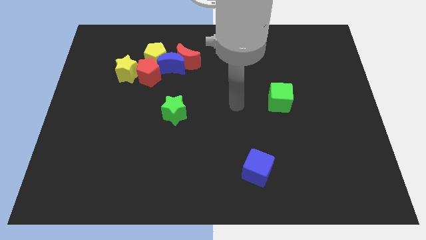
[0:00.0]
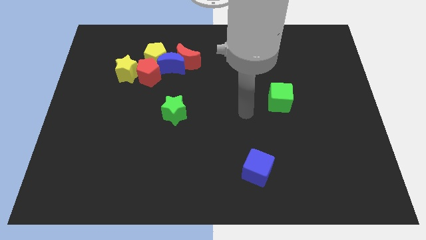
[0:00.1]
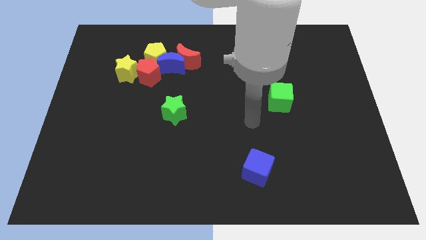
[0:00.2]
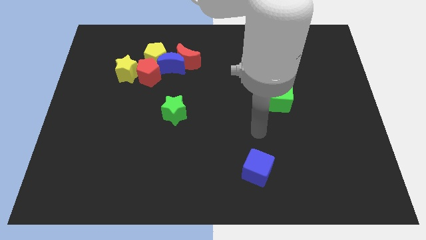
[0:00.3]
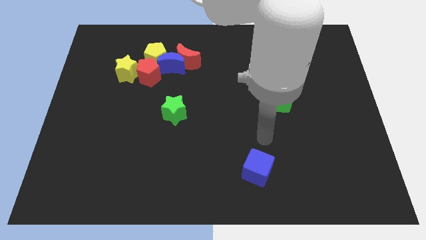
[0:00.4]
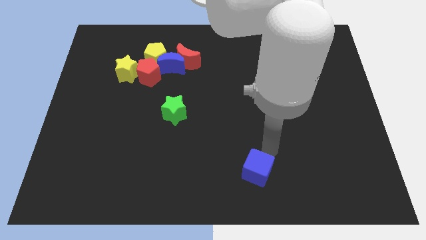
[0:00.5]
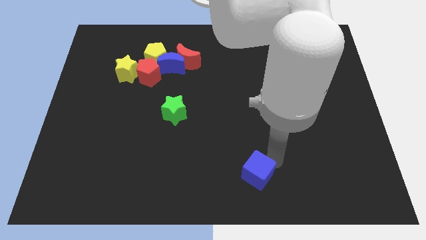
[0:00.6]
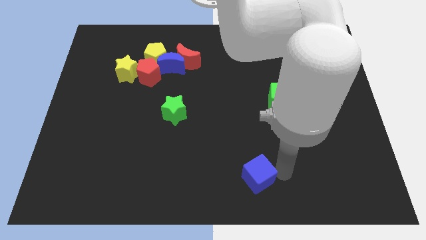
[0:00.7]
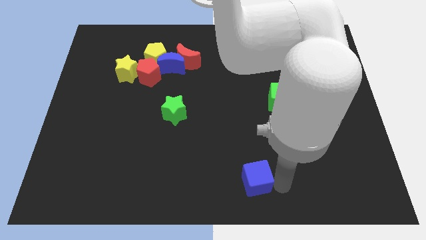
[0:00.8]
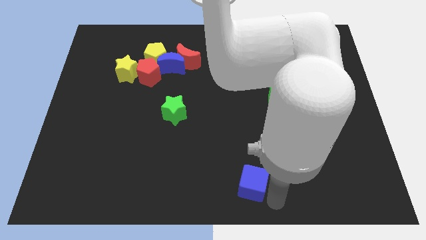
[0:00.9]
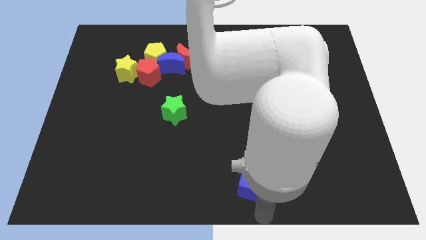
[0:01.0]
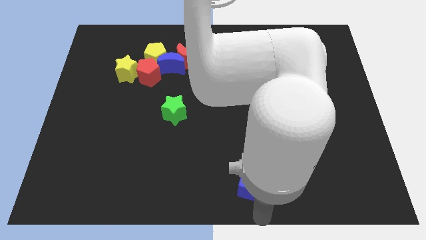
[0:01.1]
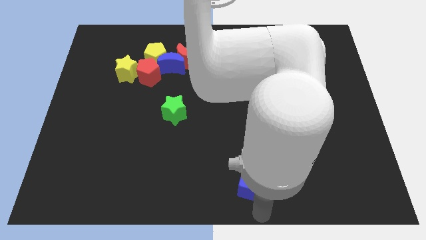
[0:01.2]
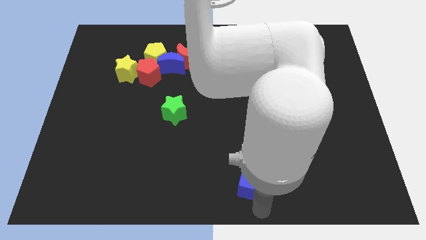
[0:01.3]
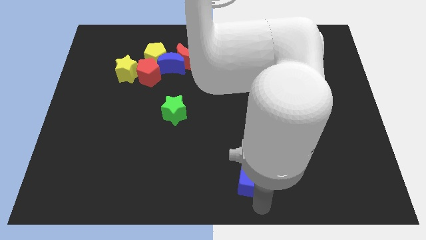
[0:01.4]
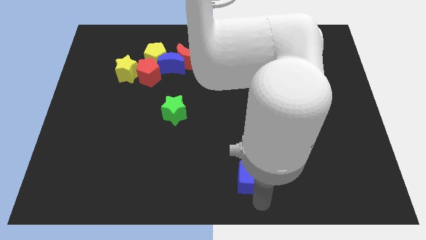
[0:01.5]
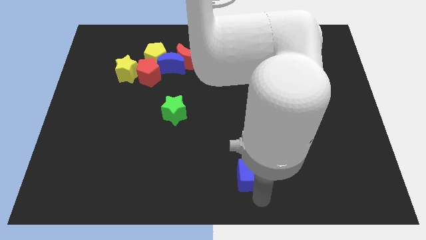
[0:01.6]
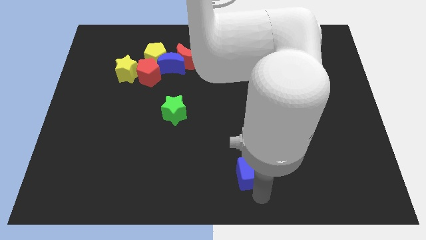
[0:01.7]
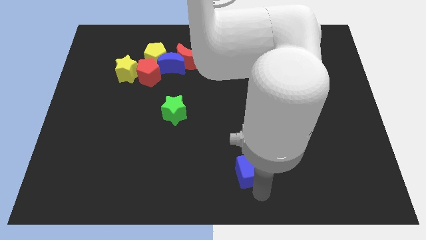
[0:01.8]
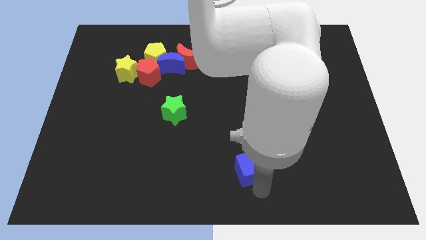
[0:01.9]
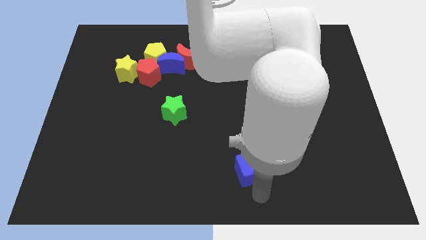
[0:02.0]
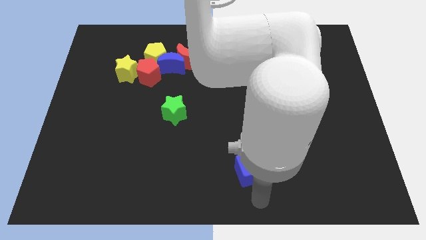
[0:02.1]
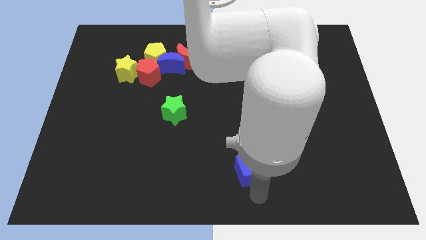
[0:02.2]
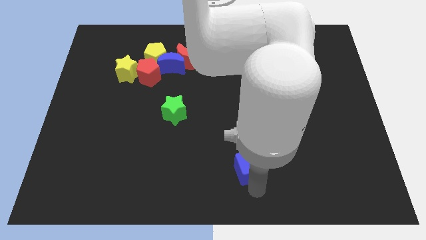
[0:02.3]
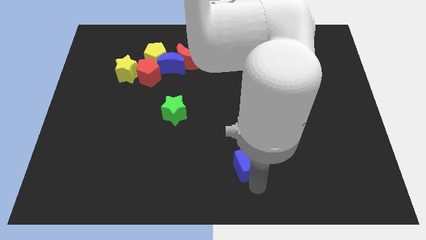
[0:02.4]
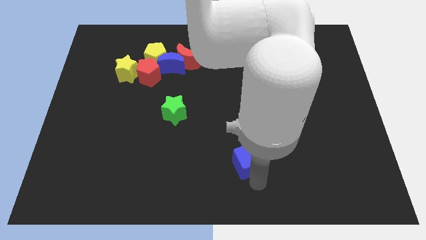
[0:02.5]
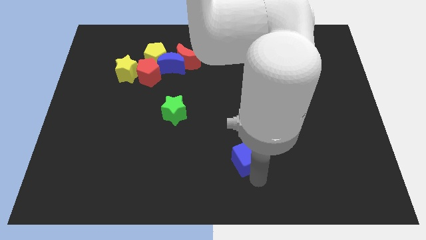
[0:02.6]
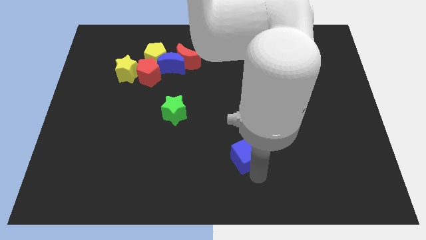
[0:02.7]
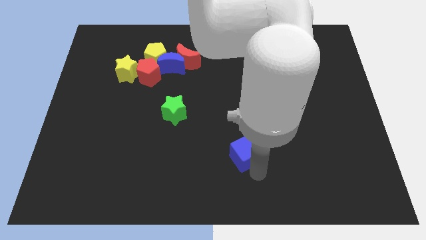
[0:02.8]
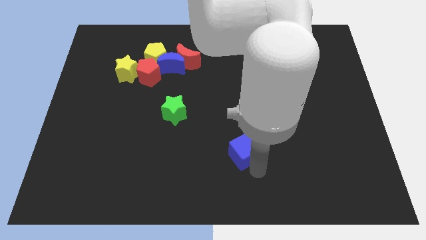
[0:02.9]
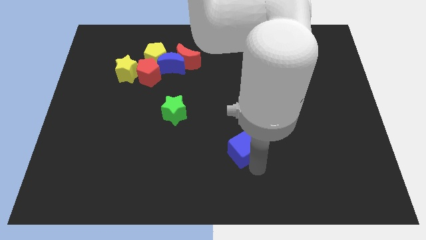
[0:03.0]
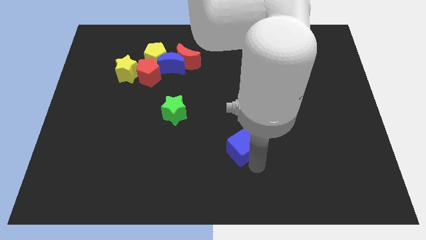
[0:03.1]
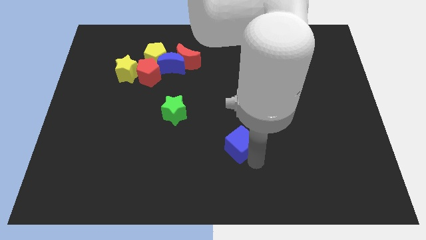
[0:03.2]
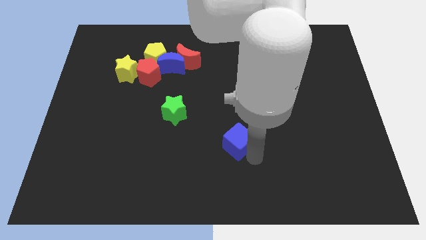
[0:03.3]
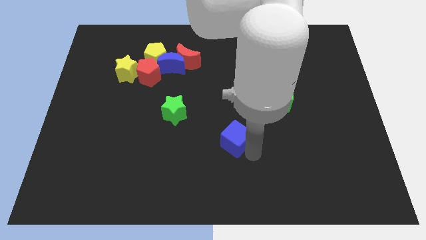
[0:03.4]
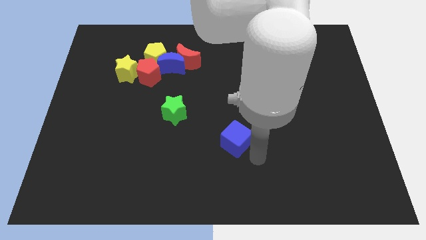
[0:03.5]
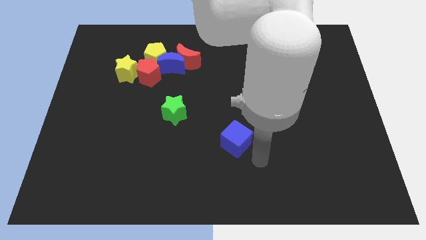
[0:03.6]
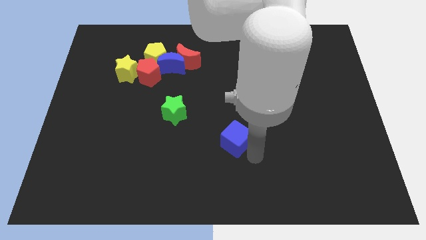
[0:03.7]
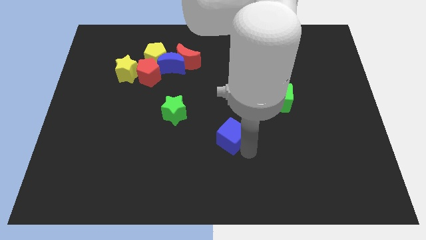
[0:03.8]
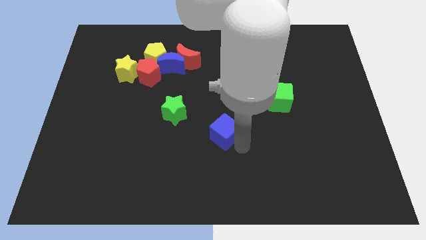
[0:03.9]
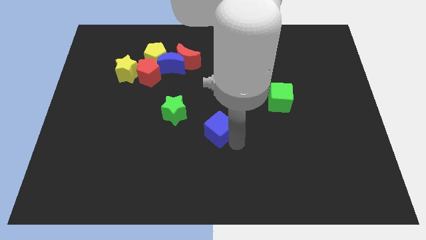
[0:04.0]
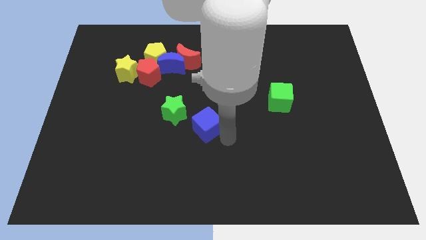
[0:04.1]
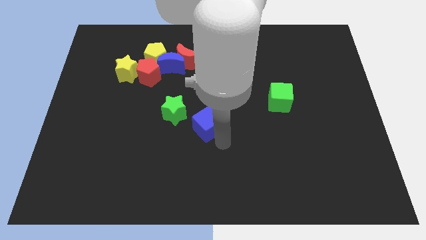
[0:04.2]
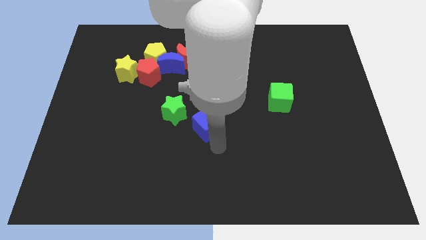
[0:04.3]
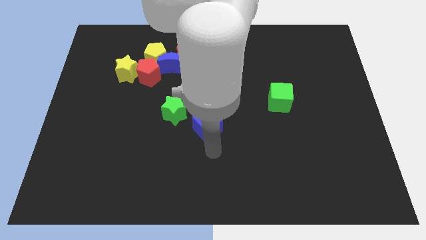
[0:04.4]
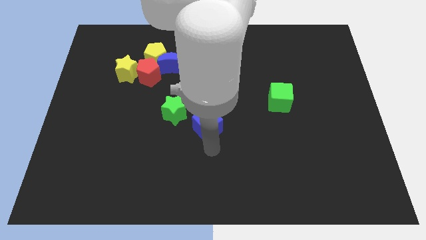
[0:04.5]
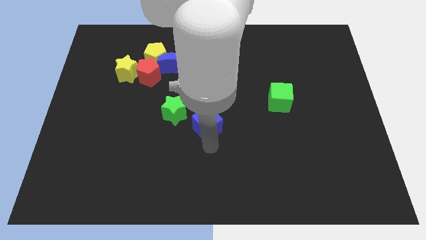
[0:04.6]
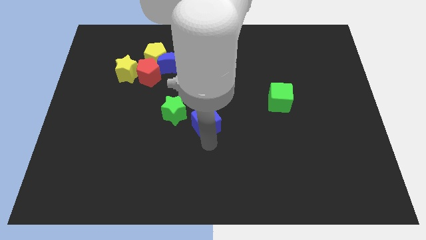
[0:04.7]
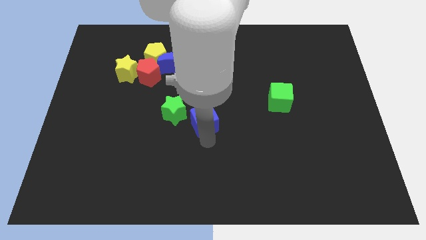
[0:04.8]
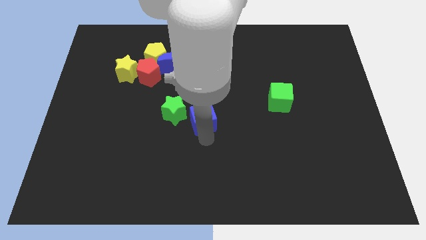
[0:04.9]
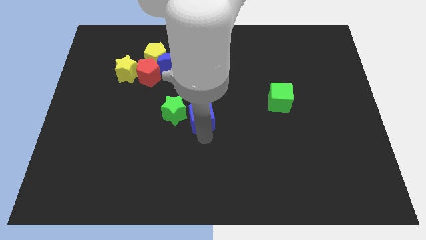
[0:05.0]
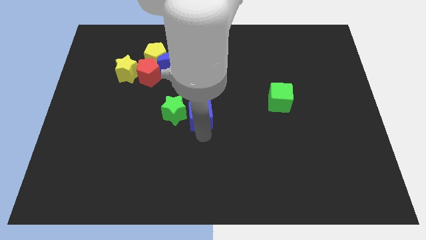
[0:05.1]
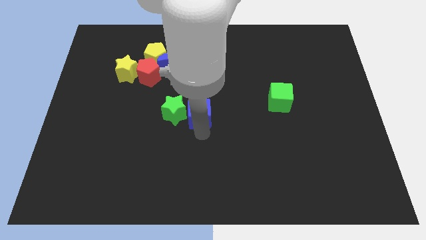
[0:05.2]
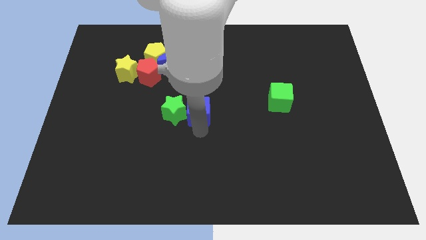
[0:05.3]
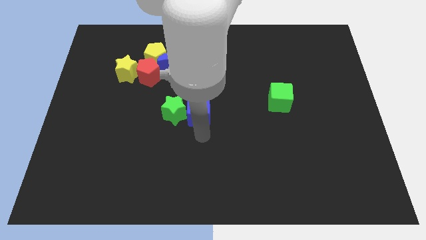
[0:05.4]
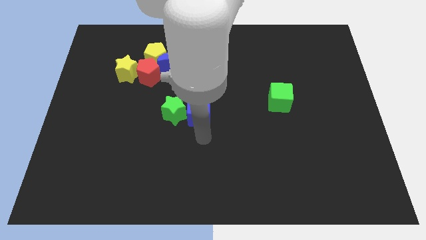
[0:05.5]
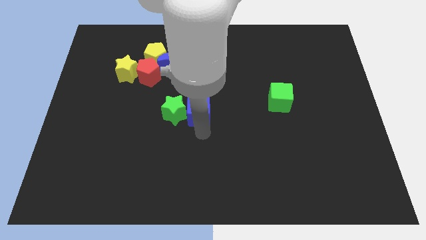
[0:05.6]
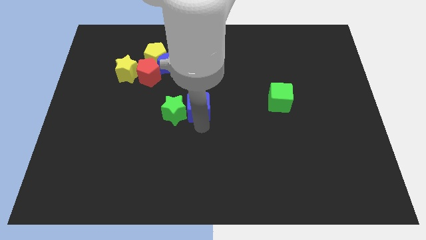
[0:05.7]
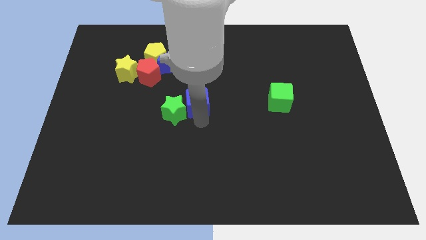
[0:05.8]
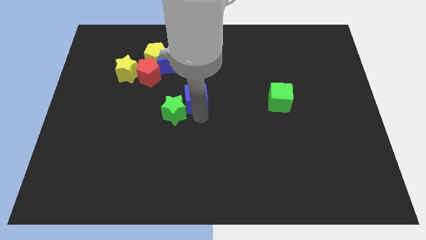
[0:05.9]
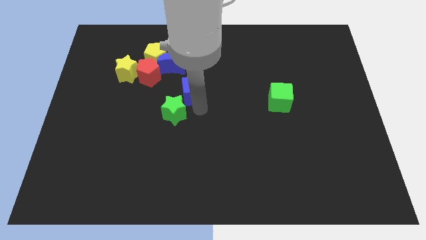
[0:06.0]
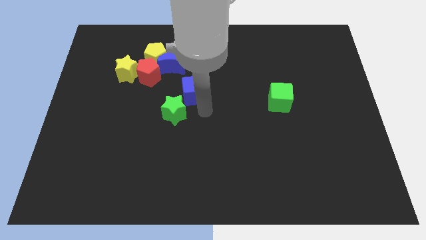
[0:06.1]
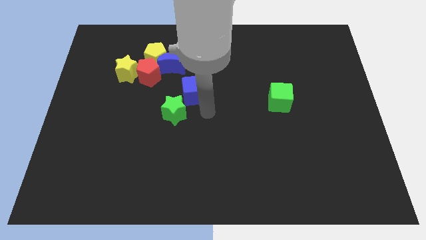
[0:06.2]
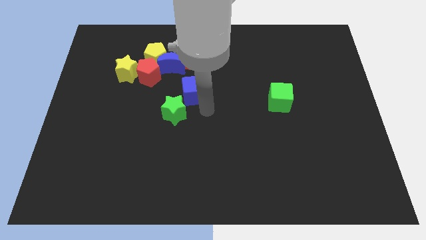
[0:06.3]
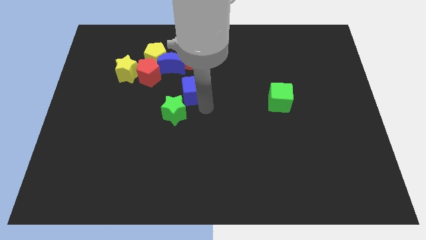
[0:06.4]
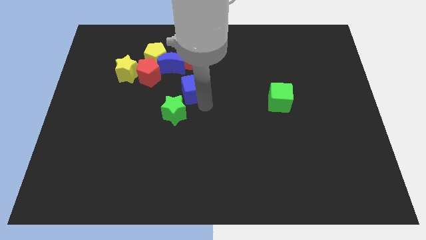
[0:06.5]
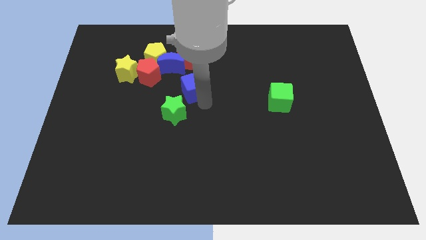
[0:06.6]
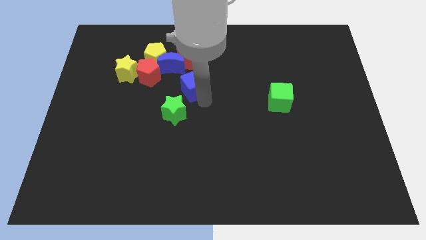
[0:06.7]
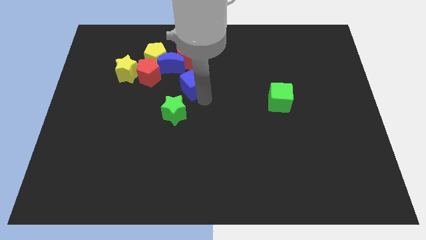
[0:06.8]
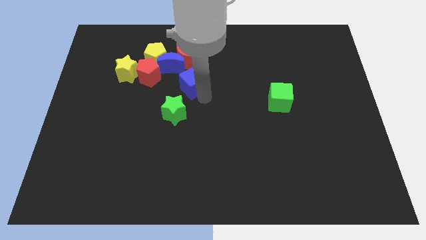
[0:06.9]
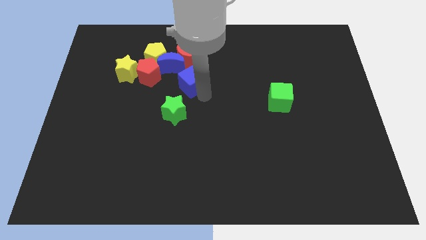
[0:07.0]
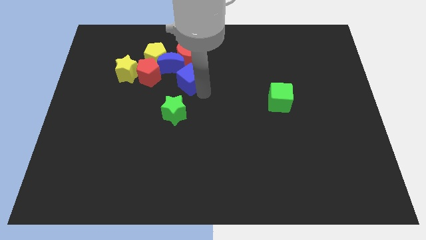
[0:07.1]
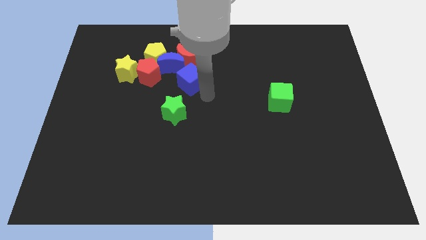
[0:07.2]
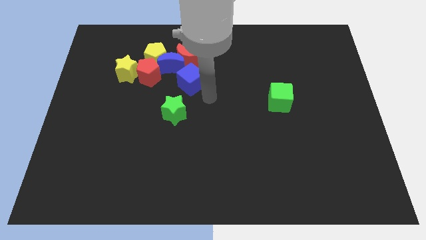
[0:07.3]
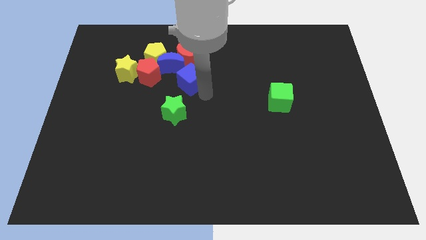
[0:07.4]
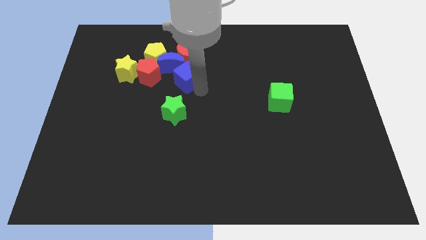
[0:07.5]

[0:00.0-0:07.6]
slide the blue cube next to the blue moon
